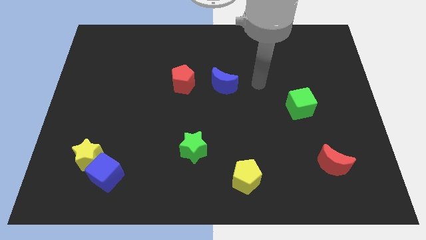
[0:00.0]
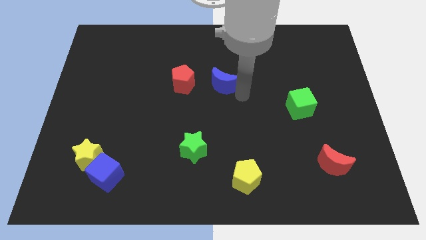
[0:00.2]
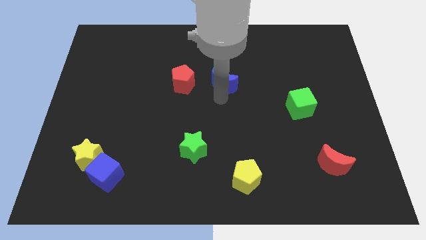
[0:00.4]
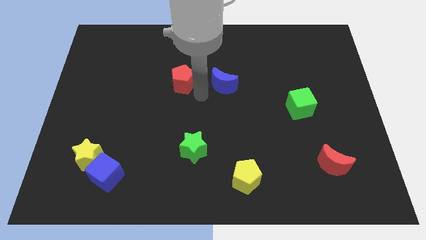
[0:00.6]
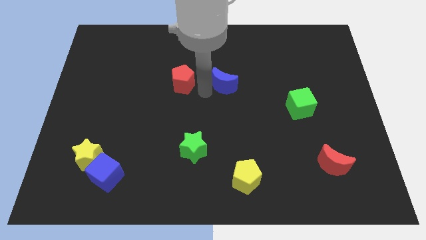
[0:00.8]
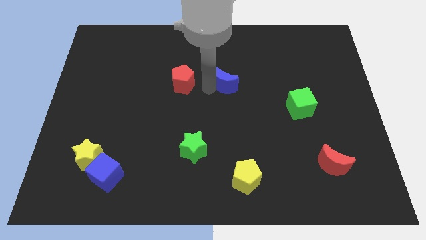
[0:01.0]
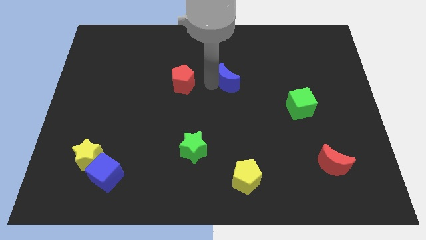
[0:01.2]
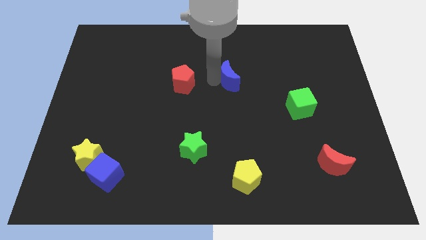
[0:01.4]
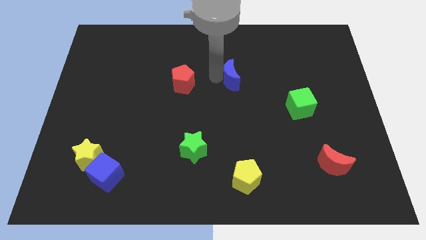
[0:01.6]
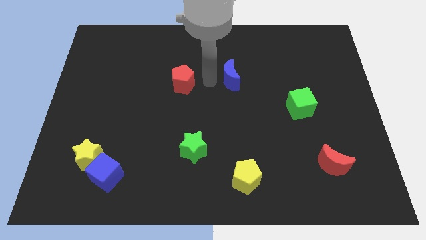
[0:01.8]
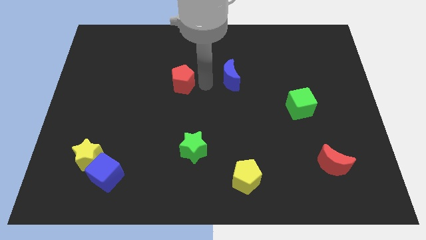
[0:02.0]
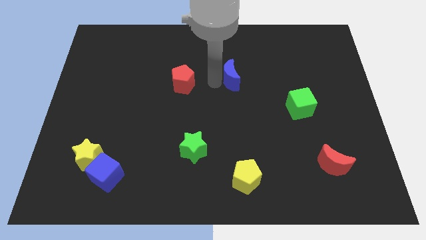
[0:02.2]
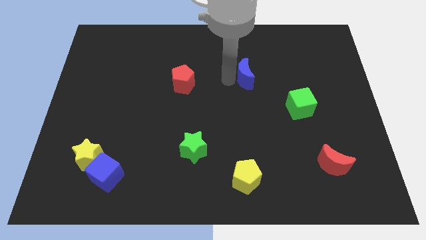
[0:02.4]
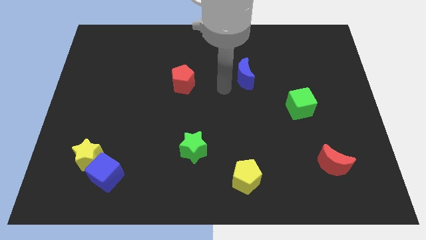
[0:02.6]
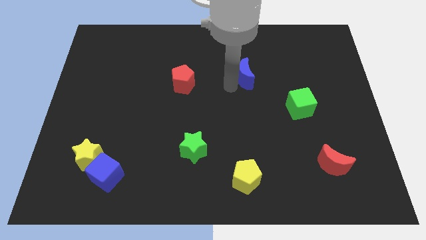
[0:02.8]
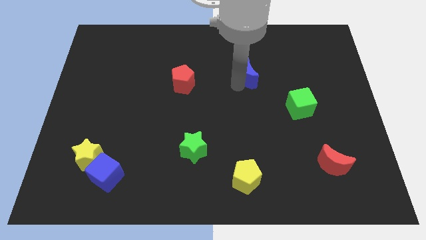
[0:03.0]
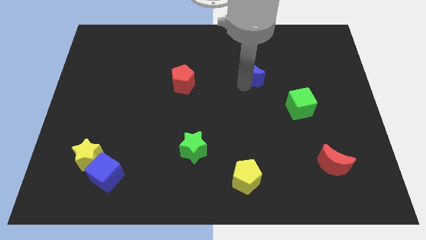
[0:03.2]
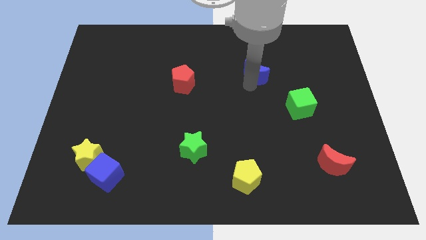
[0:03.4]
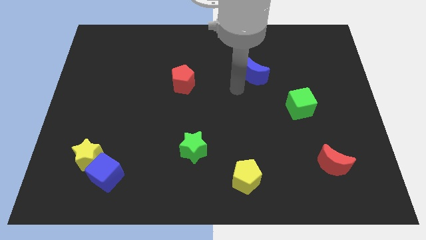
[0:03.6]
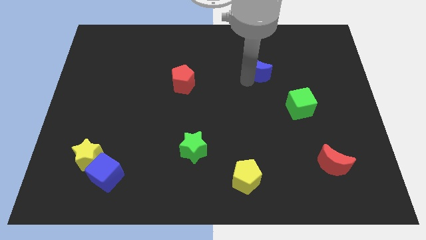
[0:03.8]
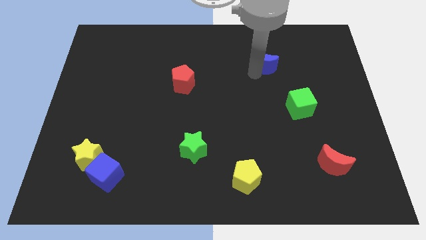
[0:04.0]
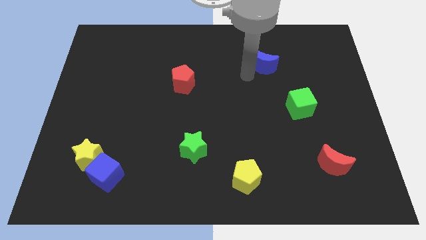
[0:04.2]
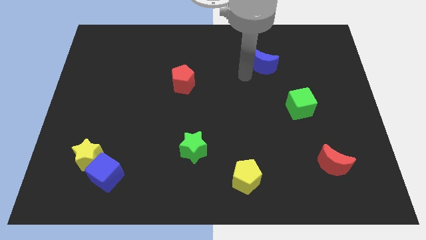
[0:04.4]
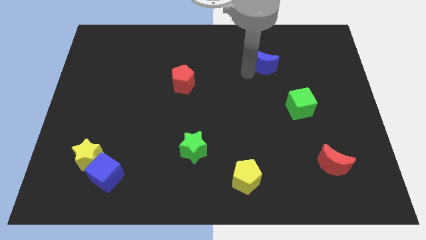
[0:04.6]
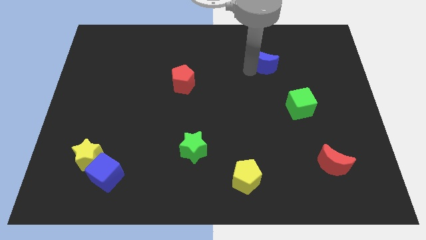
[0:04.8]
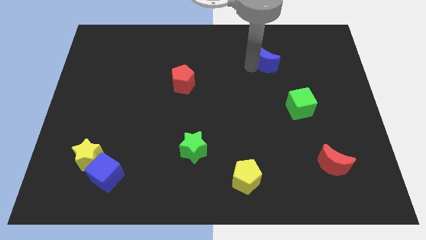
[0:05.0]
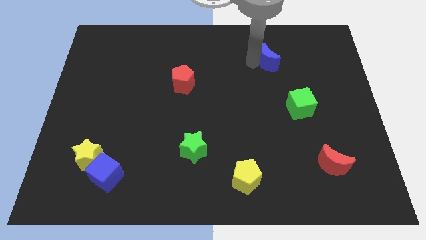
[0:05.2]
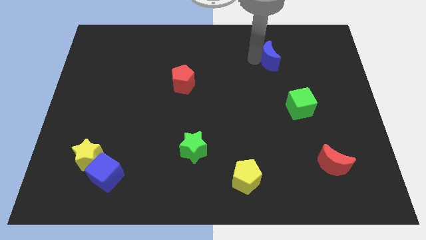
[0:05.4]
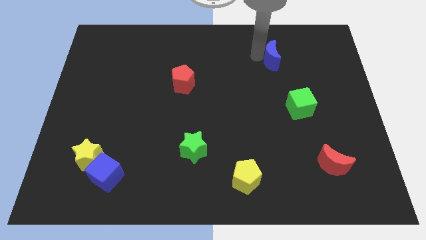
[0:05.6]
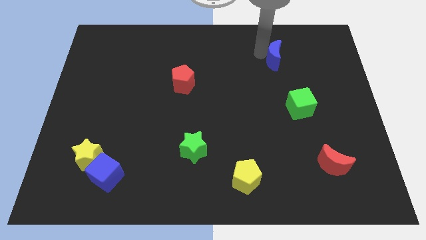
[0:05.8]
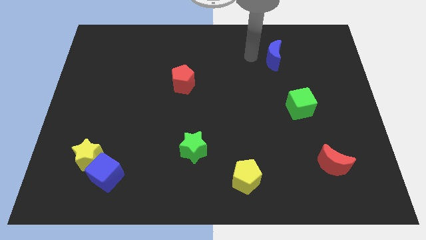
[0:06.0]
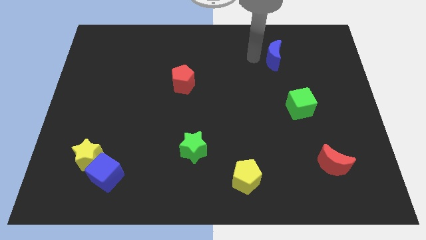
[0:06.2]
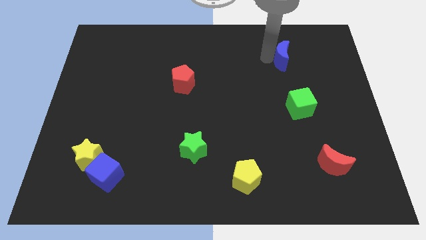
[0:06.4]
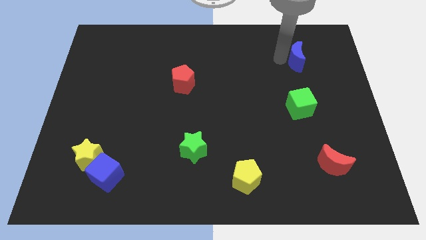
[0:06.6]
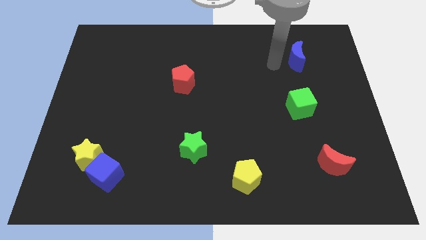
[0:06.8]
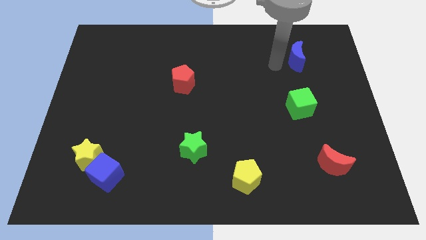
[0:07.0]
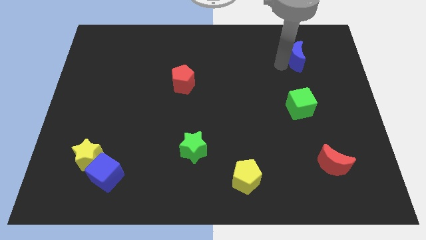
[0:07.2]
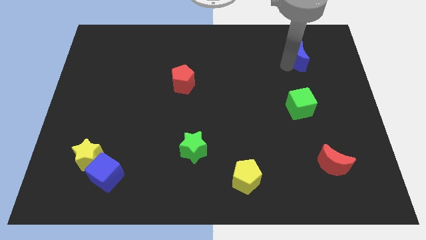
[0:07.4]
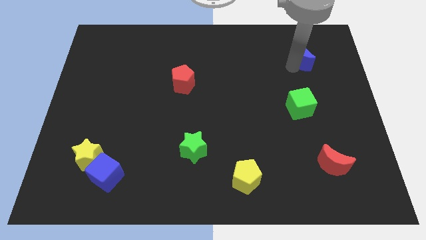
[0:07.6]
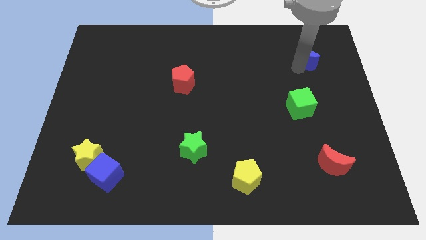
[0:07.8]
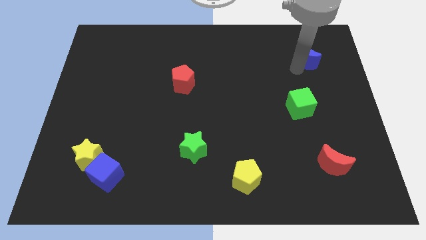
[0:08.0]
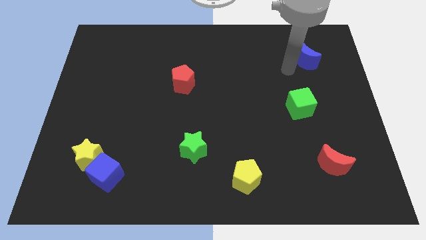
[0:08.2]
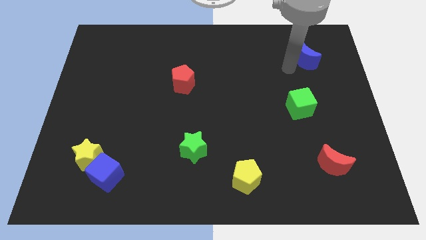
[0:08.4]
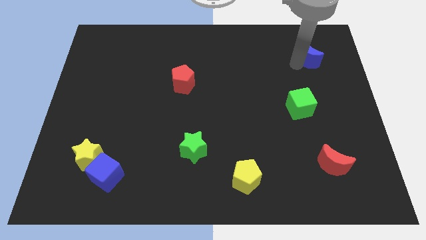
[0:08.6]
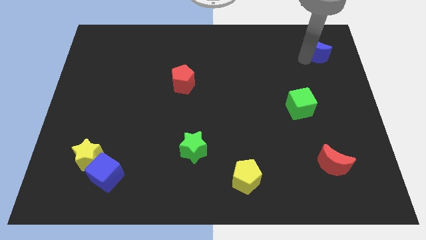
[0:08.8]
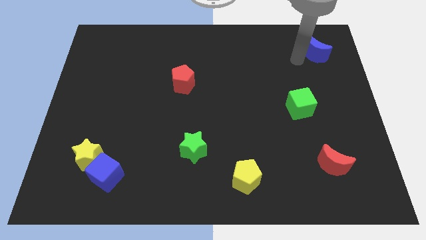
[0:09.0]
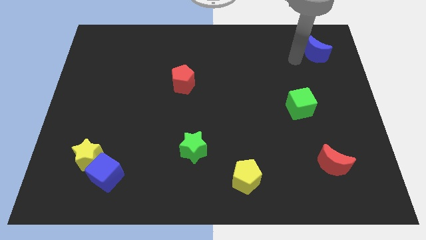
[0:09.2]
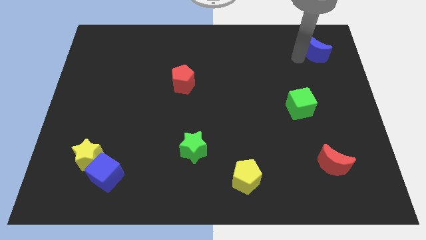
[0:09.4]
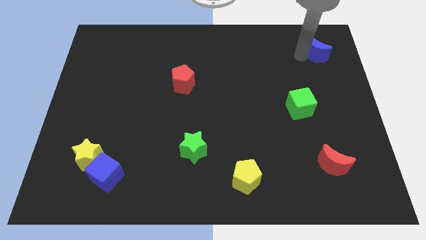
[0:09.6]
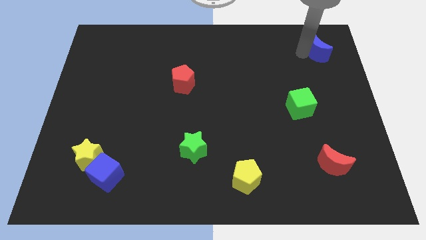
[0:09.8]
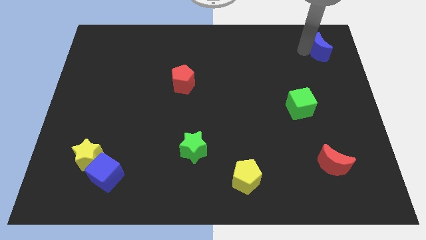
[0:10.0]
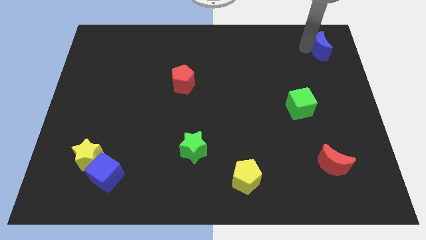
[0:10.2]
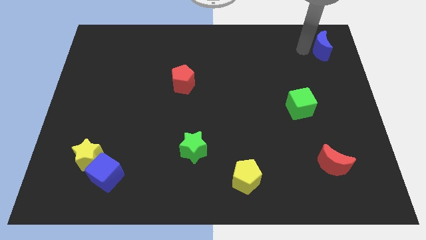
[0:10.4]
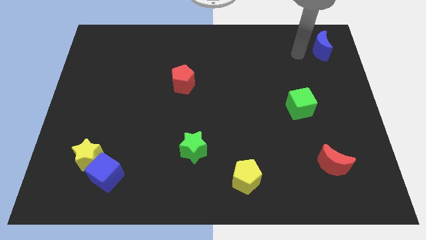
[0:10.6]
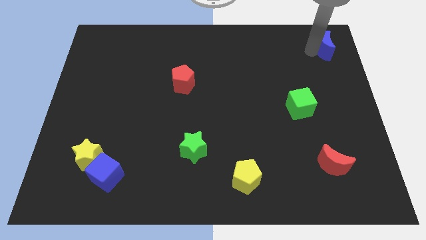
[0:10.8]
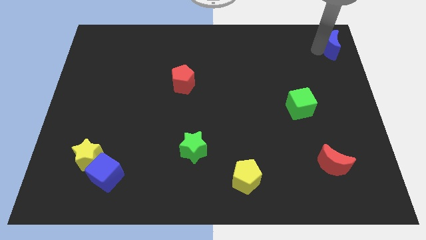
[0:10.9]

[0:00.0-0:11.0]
push the blue moon to the top right

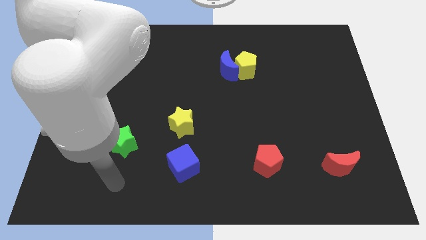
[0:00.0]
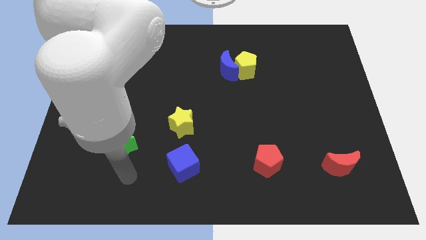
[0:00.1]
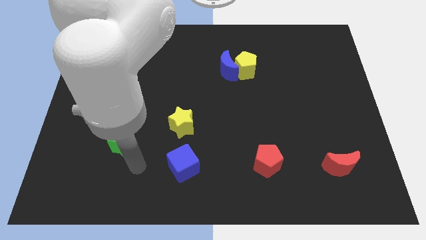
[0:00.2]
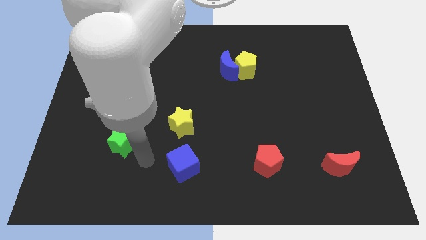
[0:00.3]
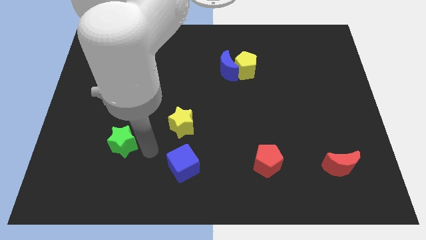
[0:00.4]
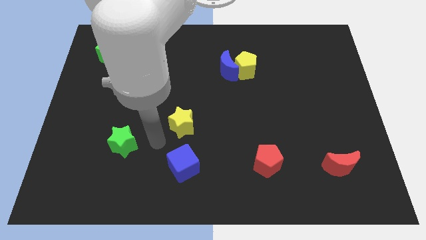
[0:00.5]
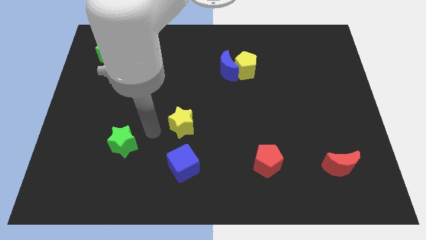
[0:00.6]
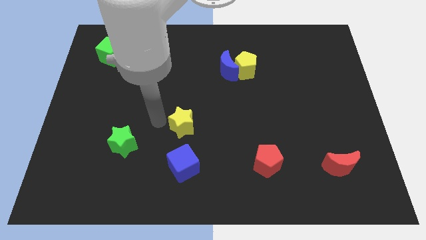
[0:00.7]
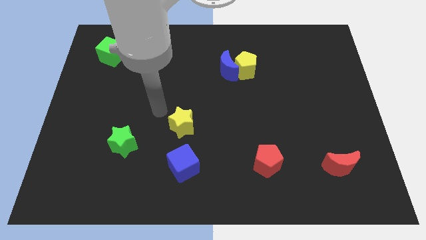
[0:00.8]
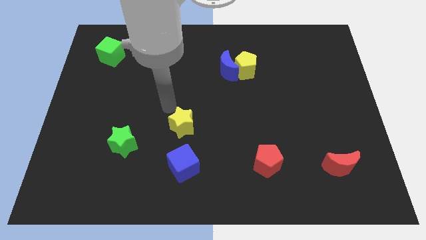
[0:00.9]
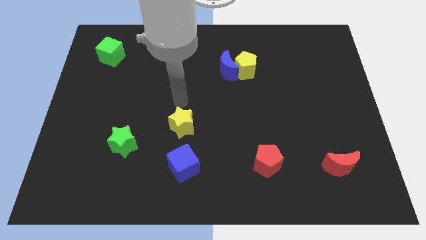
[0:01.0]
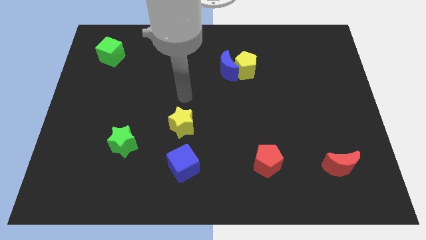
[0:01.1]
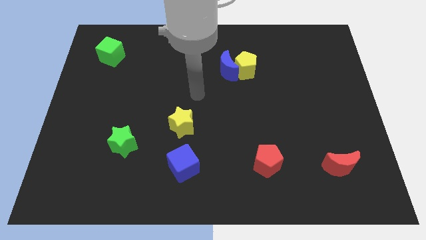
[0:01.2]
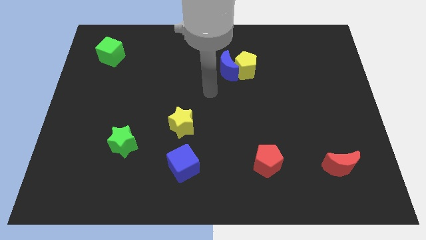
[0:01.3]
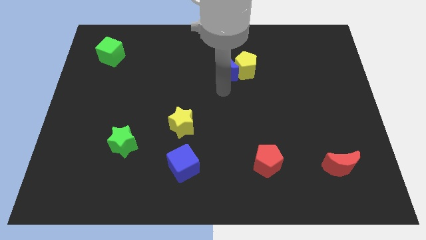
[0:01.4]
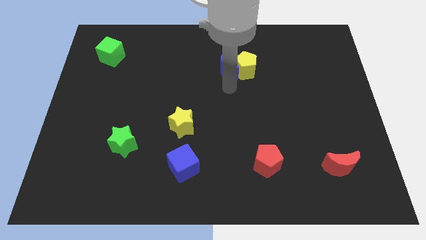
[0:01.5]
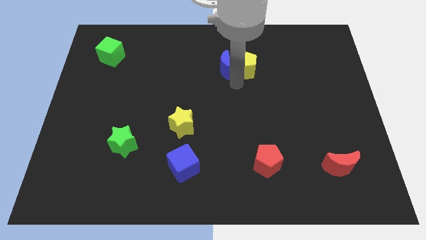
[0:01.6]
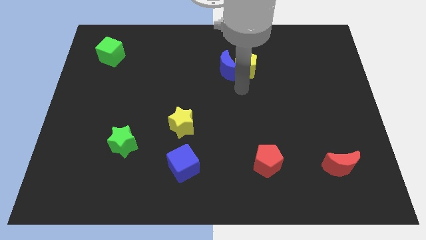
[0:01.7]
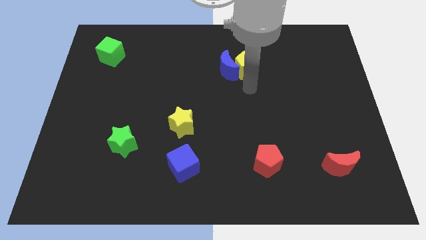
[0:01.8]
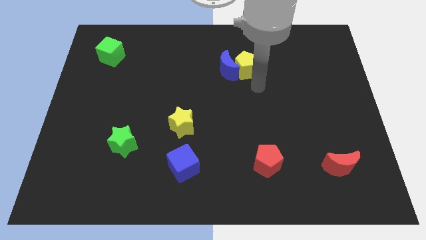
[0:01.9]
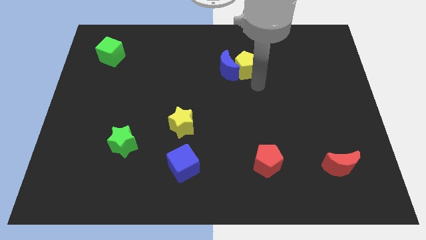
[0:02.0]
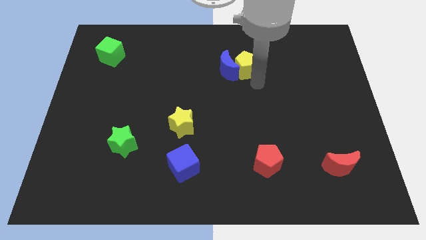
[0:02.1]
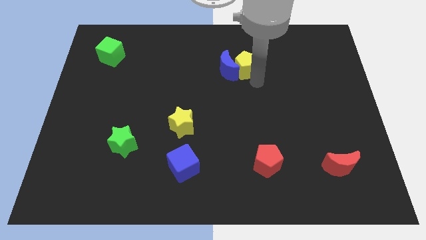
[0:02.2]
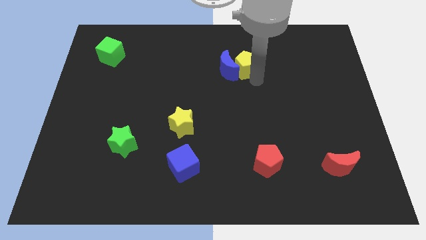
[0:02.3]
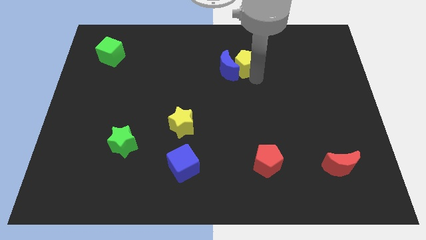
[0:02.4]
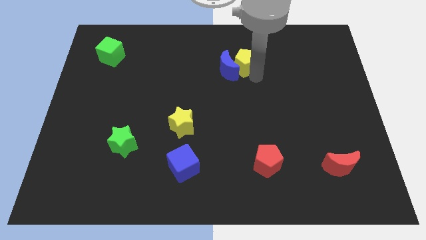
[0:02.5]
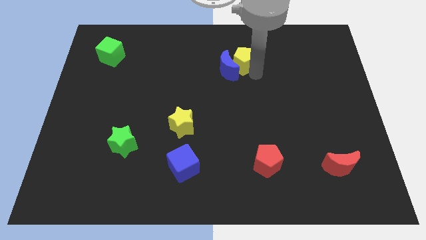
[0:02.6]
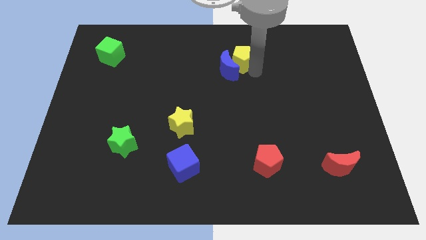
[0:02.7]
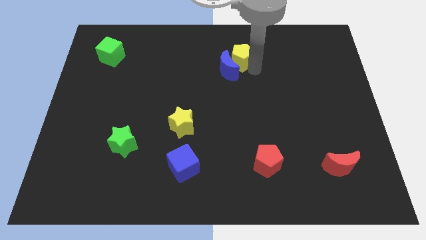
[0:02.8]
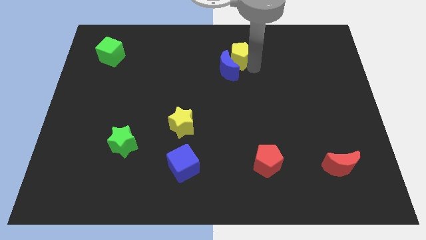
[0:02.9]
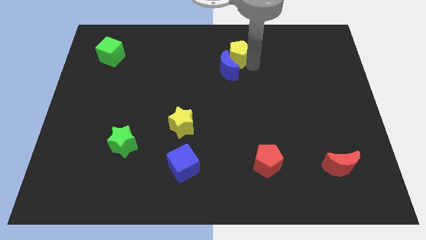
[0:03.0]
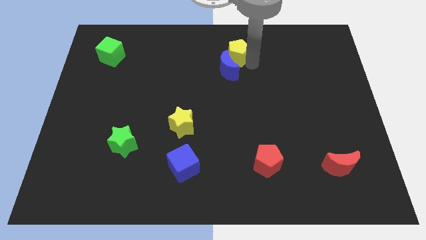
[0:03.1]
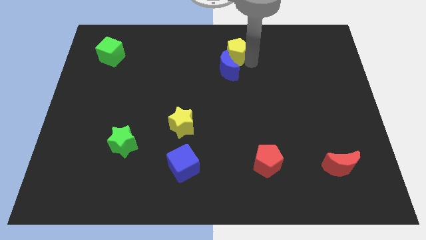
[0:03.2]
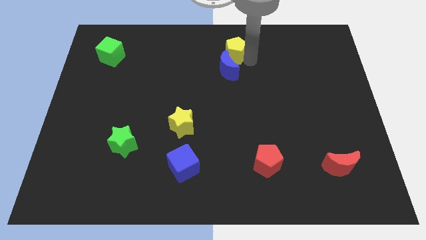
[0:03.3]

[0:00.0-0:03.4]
slide the yellow pentagon to the top side
